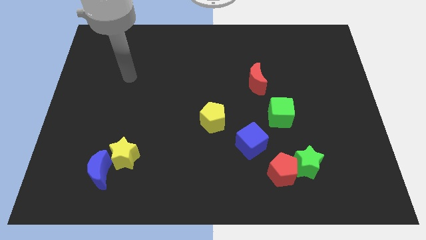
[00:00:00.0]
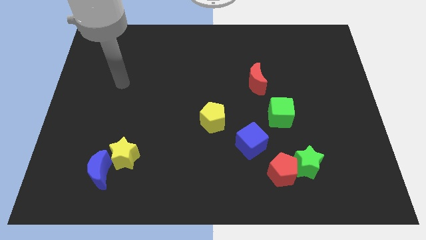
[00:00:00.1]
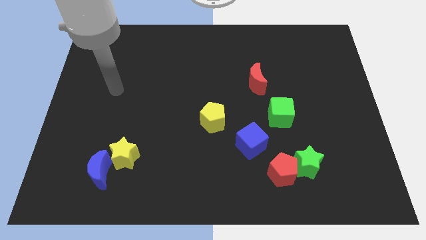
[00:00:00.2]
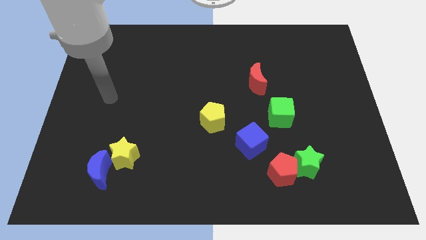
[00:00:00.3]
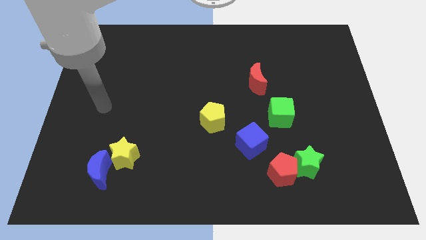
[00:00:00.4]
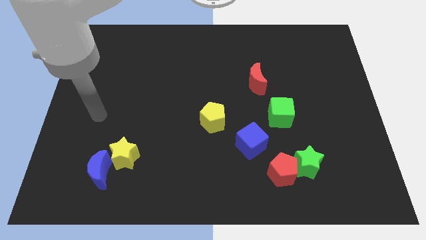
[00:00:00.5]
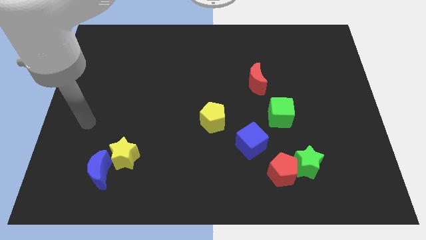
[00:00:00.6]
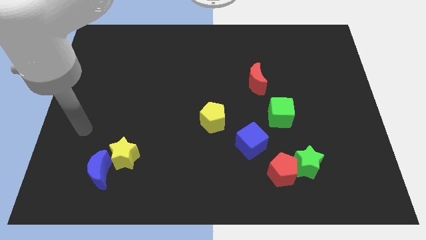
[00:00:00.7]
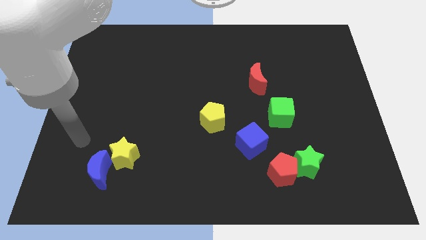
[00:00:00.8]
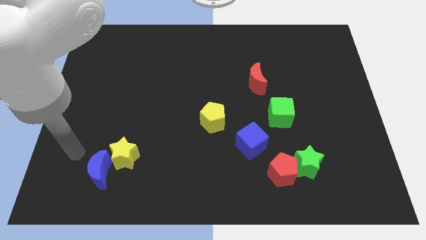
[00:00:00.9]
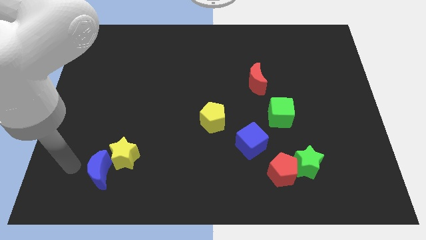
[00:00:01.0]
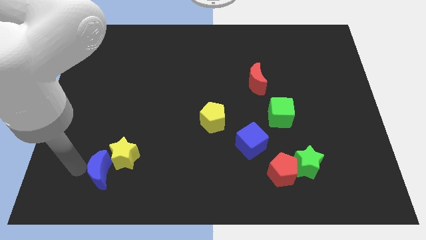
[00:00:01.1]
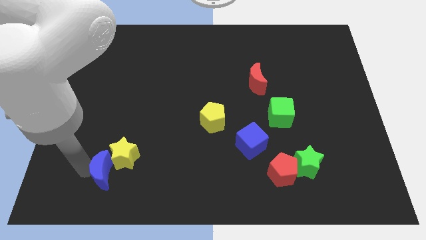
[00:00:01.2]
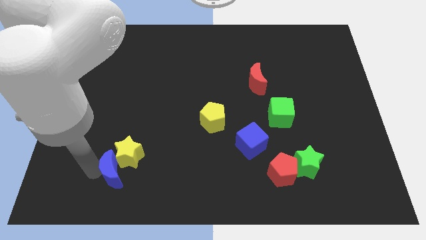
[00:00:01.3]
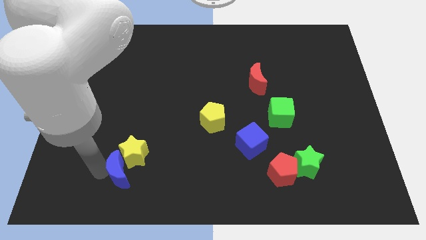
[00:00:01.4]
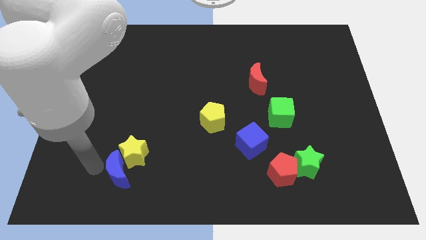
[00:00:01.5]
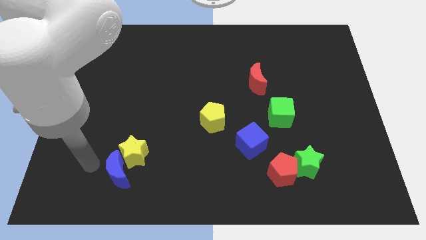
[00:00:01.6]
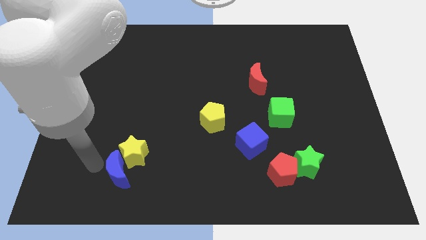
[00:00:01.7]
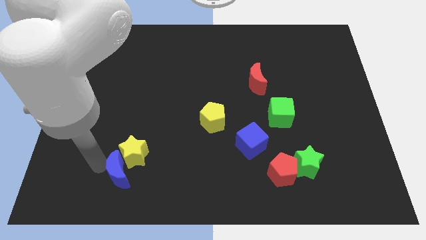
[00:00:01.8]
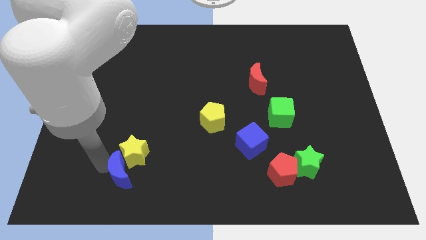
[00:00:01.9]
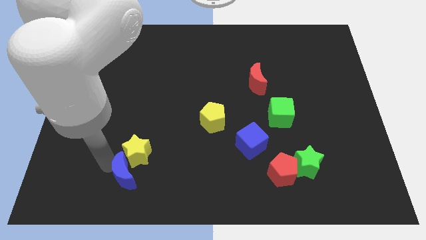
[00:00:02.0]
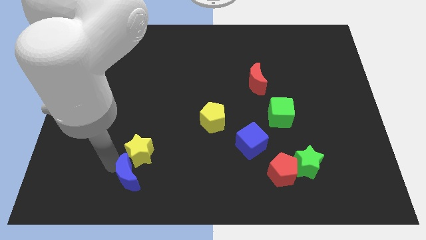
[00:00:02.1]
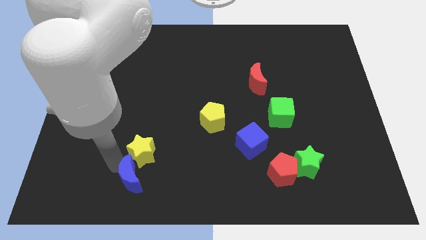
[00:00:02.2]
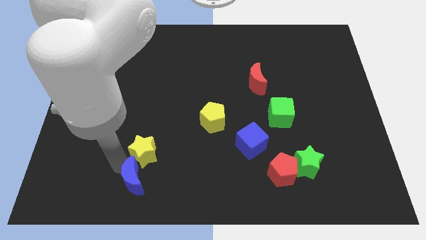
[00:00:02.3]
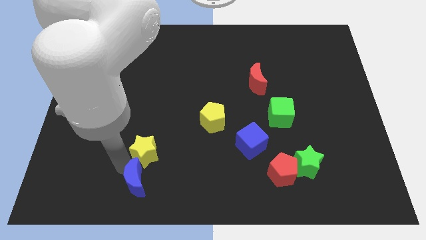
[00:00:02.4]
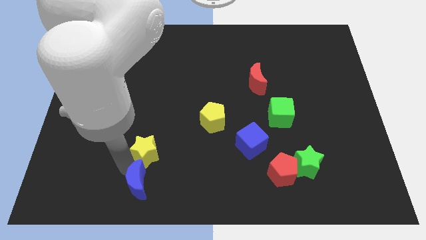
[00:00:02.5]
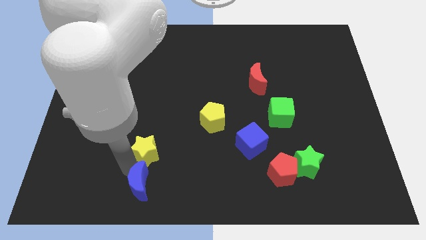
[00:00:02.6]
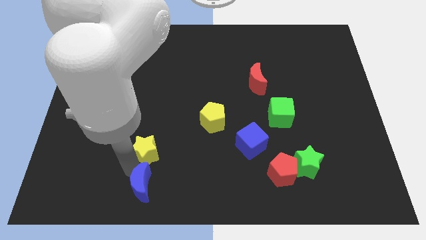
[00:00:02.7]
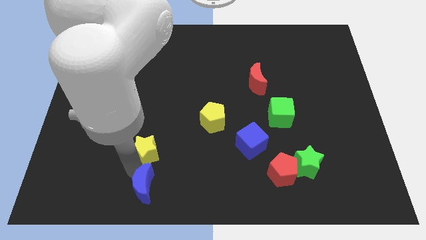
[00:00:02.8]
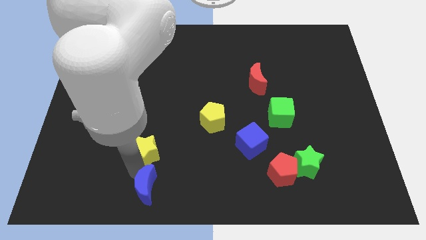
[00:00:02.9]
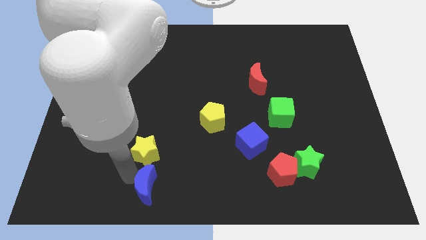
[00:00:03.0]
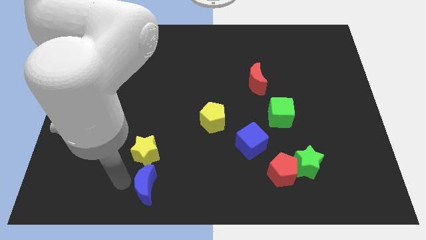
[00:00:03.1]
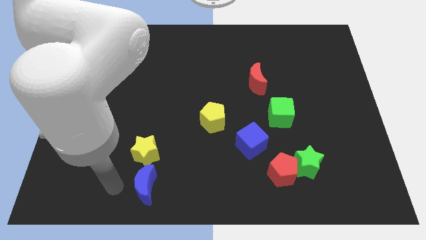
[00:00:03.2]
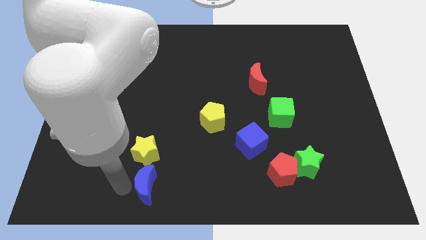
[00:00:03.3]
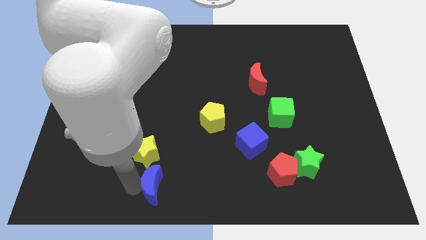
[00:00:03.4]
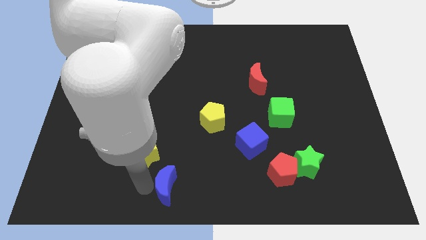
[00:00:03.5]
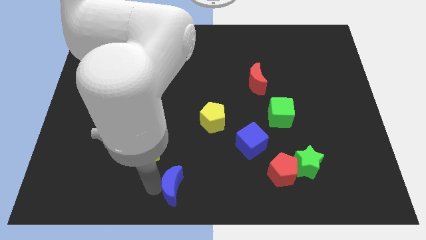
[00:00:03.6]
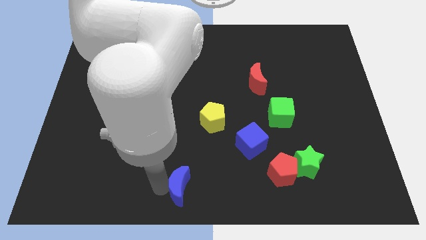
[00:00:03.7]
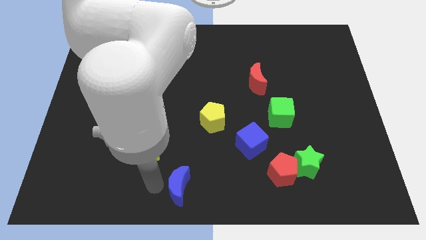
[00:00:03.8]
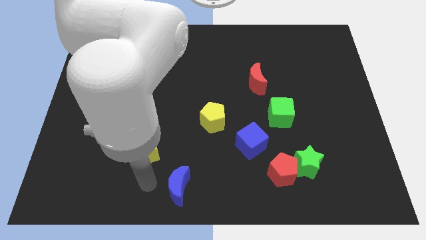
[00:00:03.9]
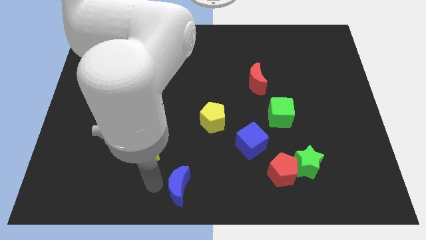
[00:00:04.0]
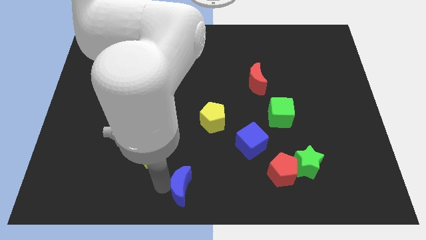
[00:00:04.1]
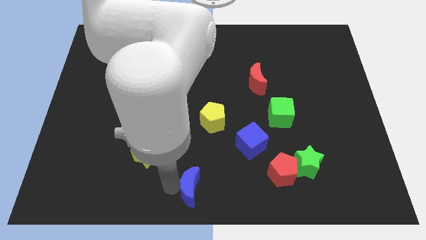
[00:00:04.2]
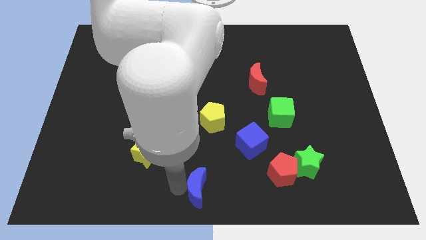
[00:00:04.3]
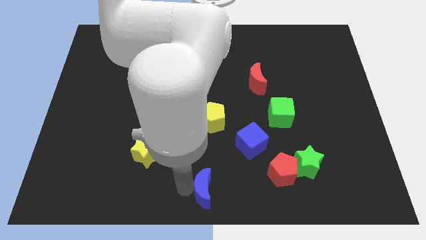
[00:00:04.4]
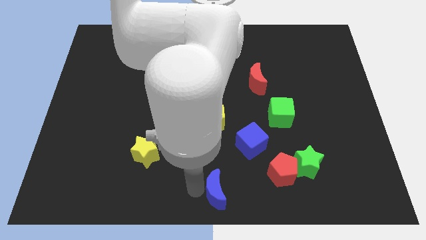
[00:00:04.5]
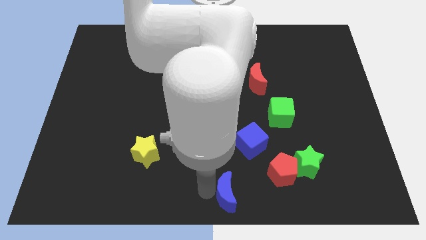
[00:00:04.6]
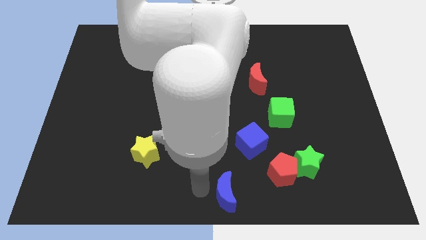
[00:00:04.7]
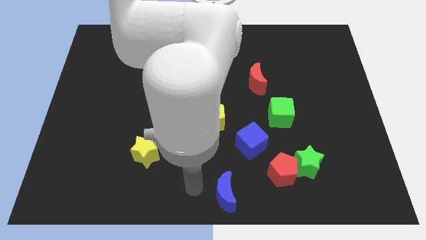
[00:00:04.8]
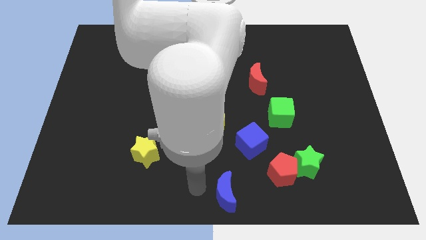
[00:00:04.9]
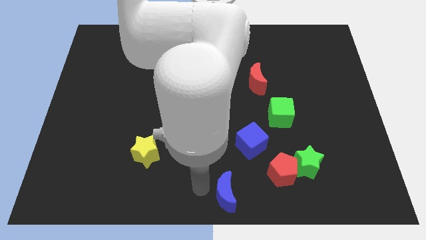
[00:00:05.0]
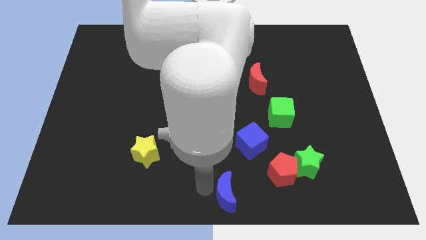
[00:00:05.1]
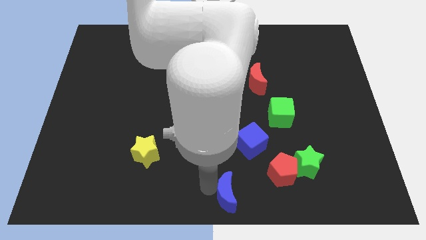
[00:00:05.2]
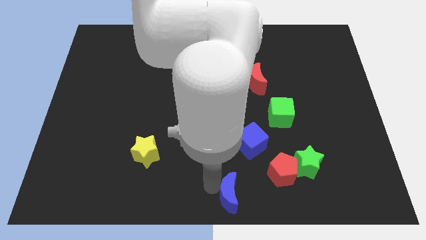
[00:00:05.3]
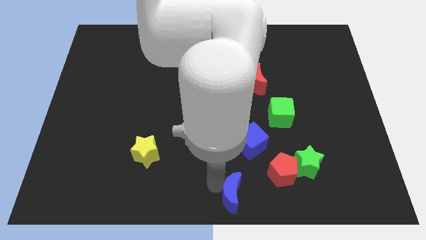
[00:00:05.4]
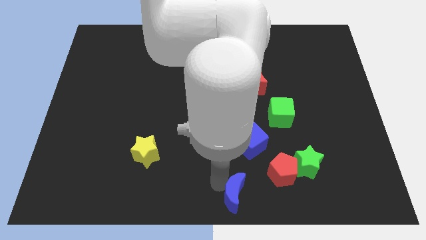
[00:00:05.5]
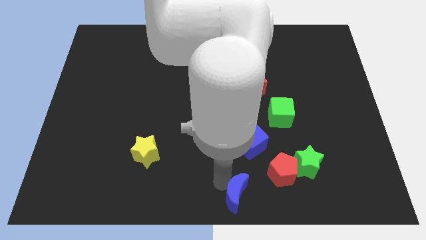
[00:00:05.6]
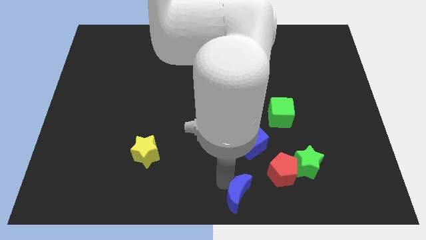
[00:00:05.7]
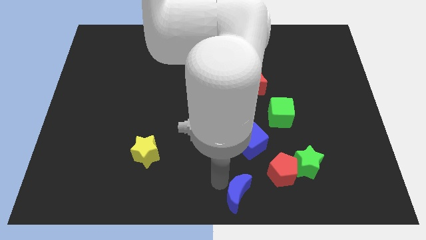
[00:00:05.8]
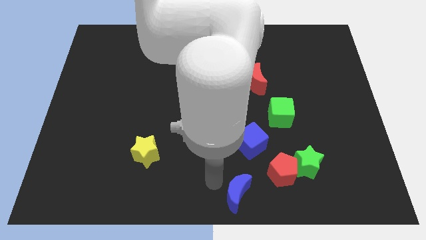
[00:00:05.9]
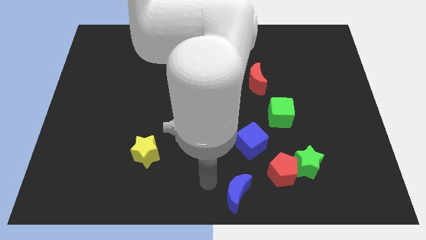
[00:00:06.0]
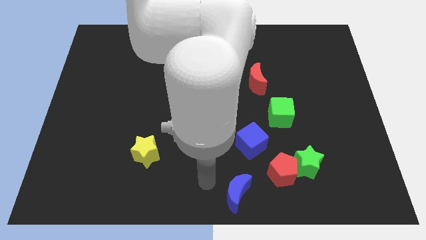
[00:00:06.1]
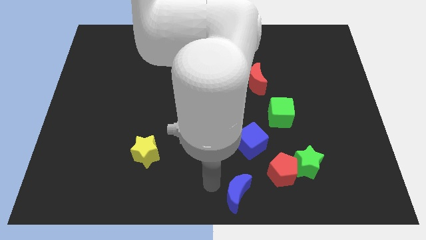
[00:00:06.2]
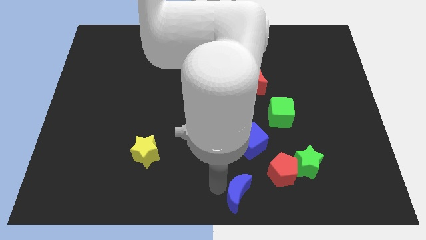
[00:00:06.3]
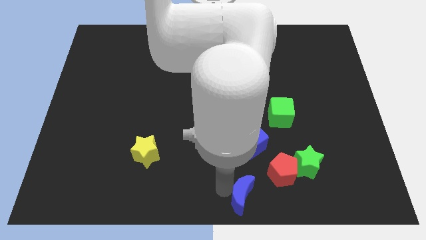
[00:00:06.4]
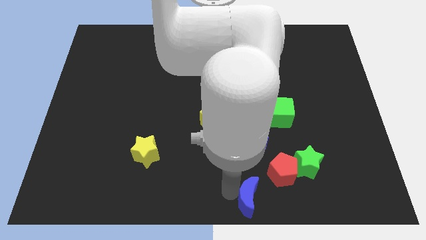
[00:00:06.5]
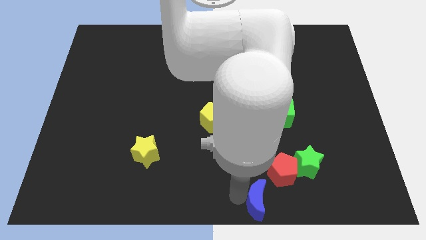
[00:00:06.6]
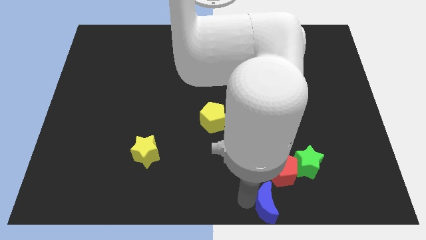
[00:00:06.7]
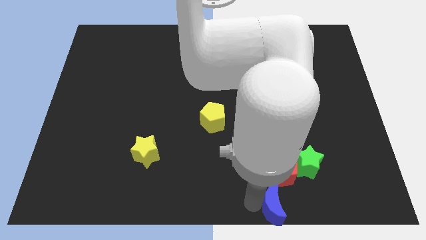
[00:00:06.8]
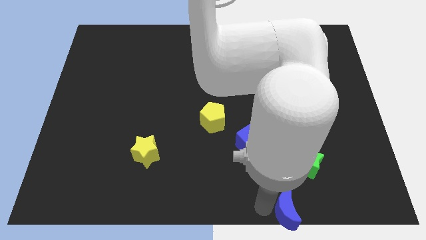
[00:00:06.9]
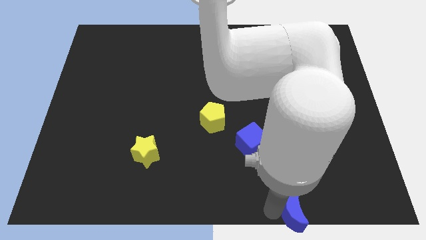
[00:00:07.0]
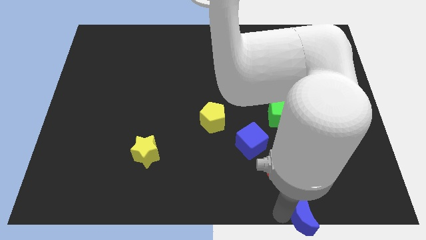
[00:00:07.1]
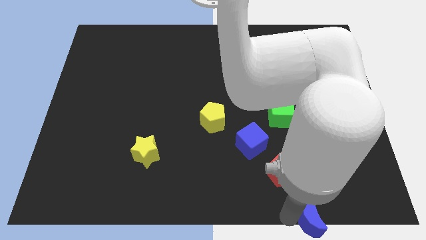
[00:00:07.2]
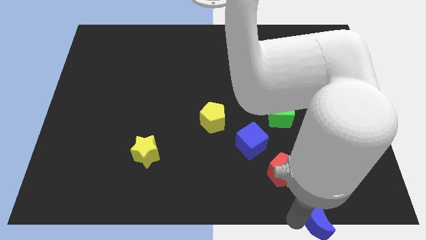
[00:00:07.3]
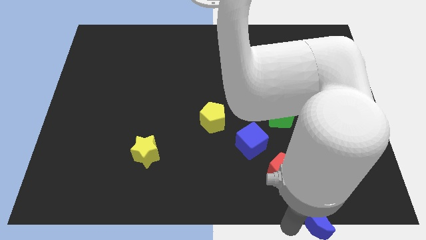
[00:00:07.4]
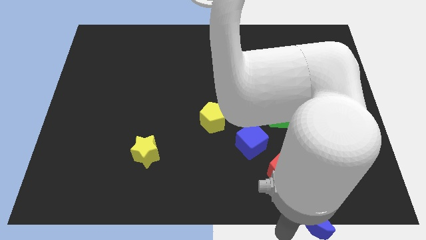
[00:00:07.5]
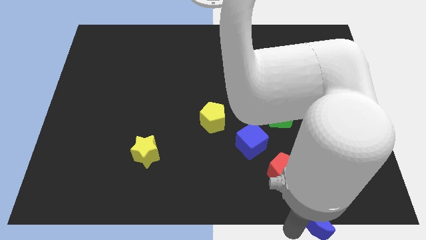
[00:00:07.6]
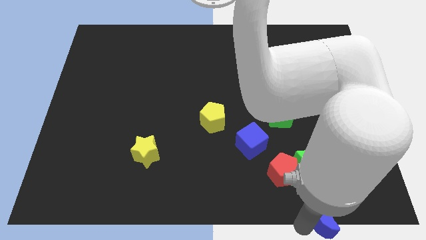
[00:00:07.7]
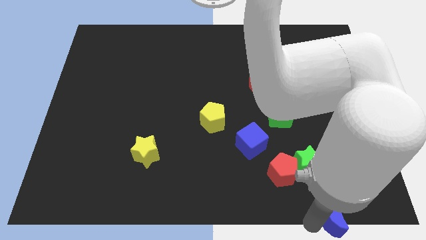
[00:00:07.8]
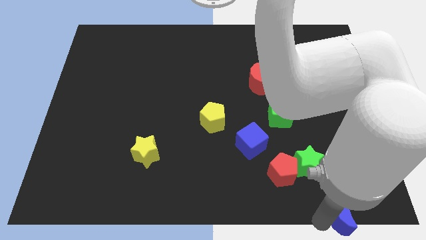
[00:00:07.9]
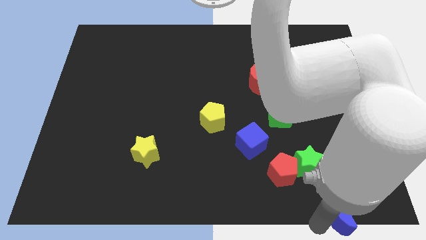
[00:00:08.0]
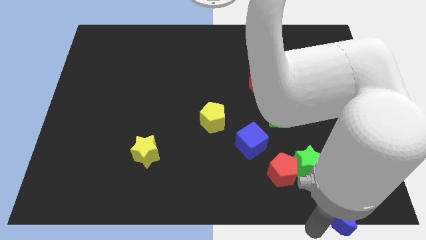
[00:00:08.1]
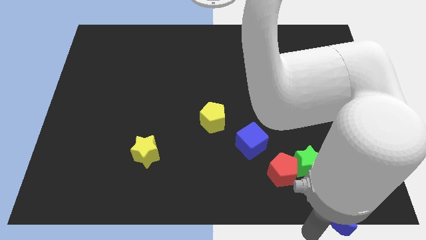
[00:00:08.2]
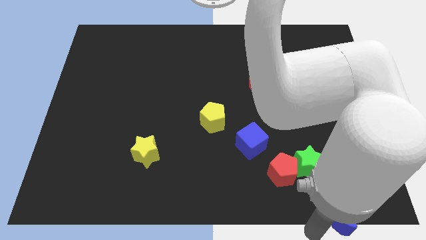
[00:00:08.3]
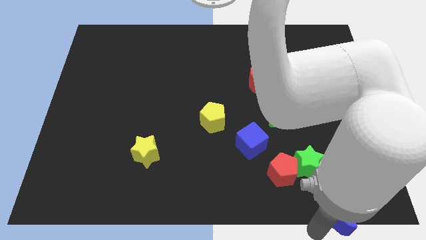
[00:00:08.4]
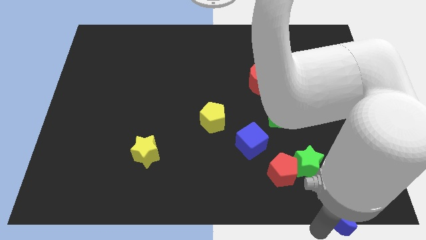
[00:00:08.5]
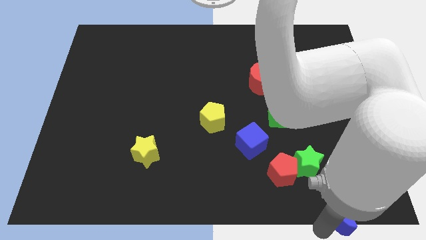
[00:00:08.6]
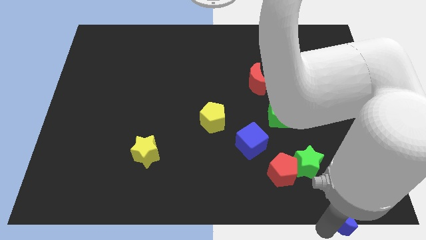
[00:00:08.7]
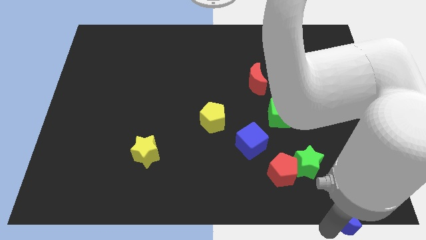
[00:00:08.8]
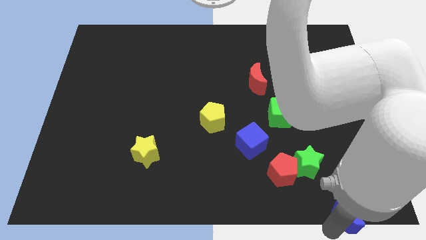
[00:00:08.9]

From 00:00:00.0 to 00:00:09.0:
slide the blue moon to the bottom right
